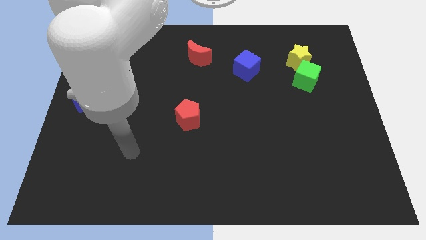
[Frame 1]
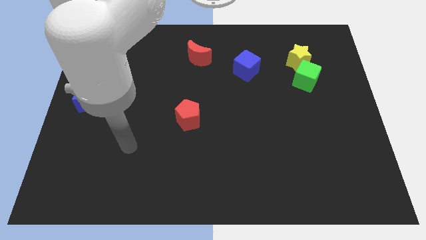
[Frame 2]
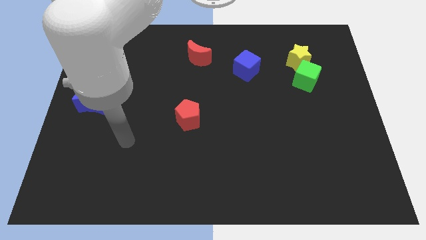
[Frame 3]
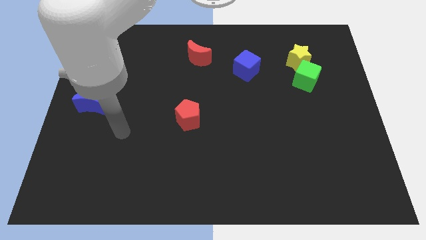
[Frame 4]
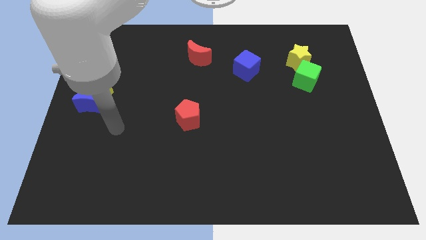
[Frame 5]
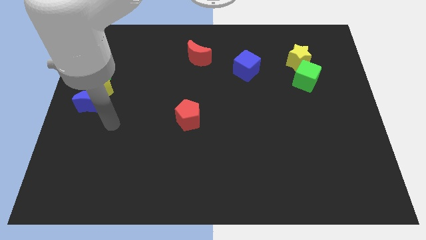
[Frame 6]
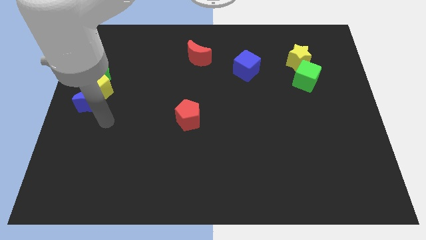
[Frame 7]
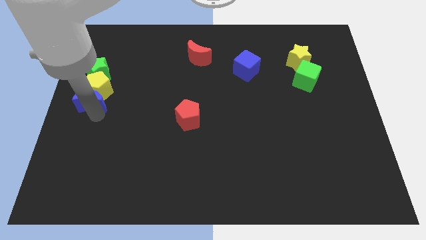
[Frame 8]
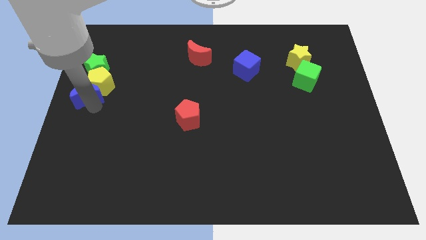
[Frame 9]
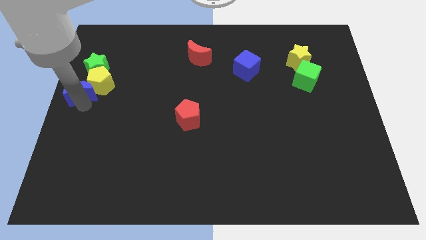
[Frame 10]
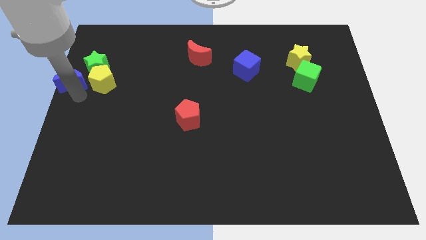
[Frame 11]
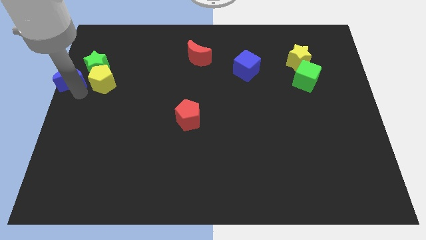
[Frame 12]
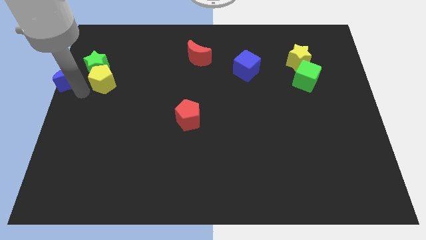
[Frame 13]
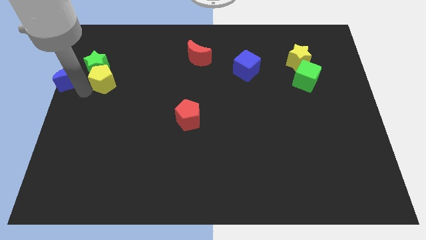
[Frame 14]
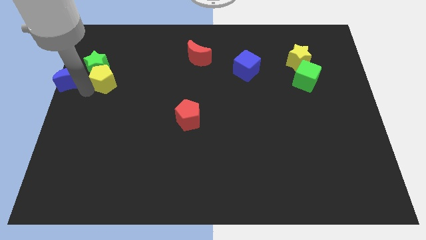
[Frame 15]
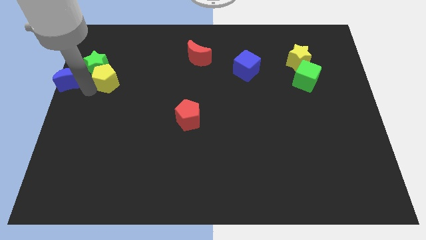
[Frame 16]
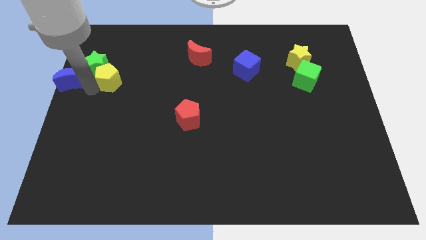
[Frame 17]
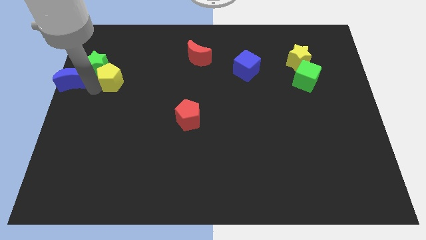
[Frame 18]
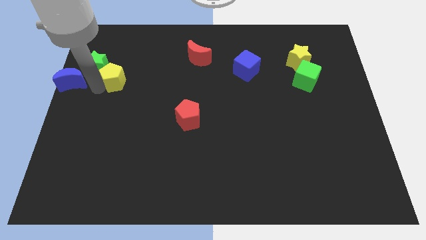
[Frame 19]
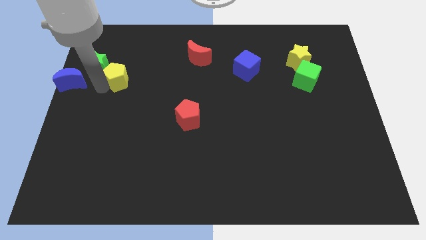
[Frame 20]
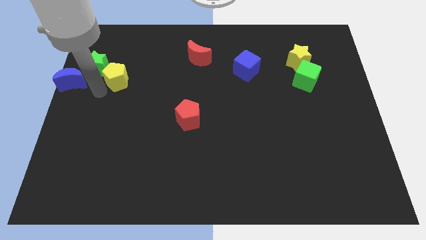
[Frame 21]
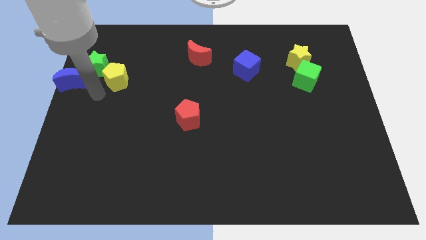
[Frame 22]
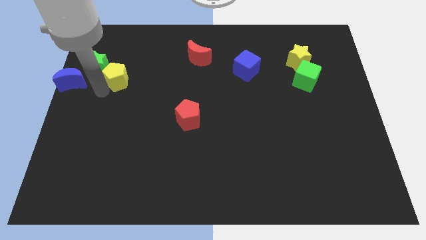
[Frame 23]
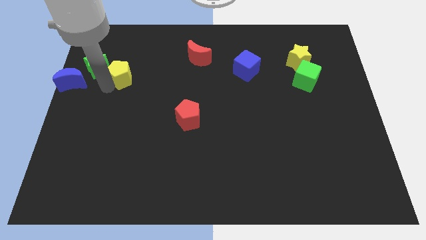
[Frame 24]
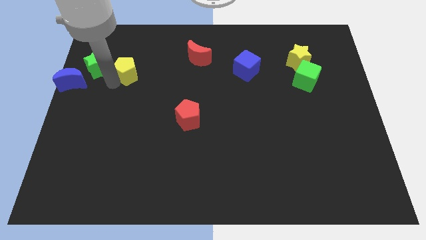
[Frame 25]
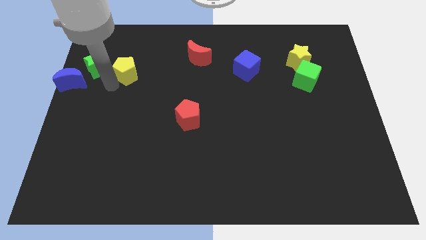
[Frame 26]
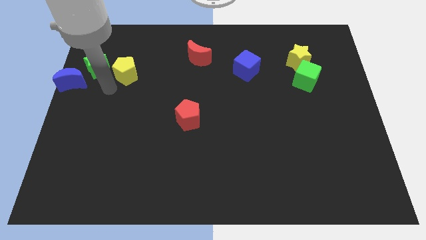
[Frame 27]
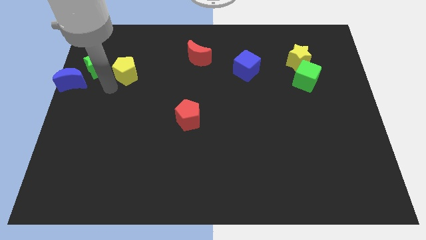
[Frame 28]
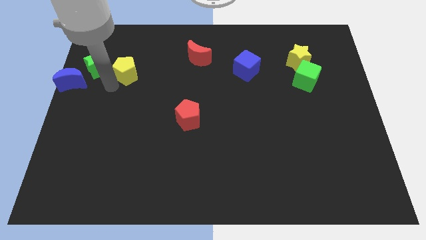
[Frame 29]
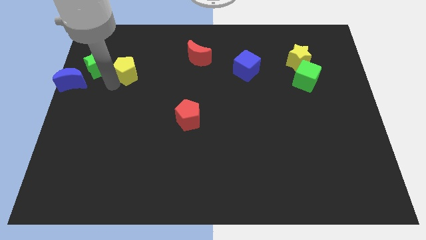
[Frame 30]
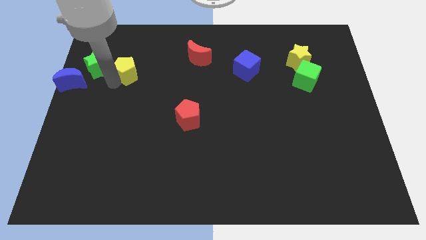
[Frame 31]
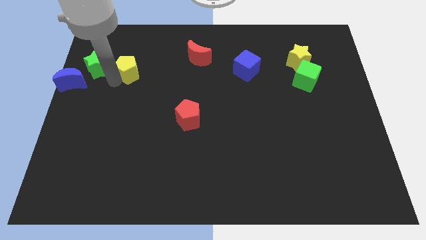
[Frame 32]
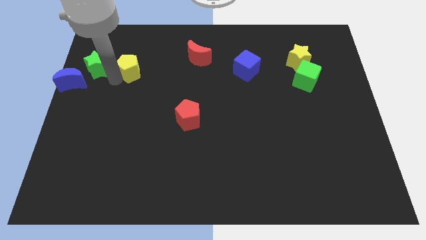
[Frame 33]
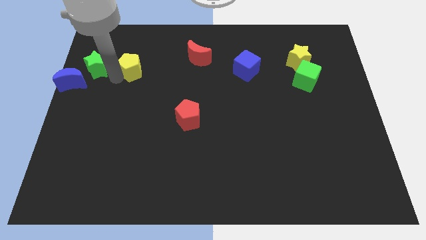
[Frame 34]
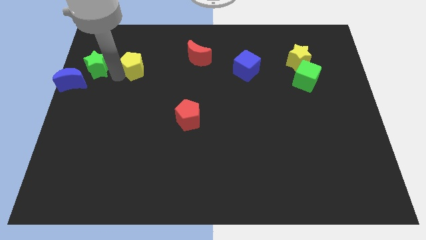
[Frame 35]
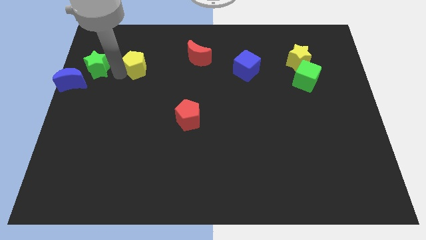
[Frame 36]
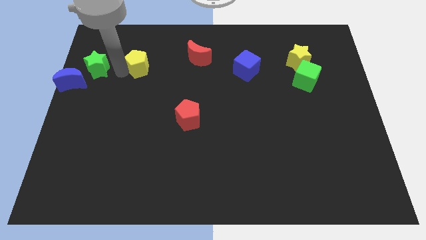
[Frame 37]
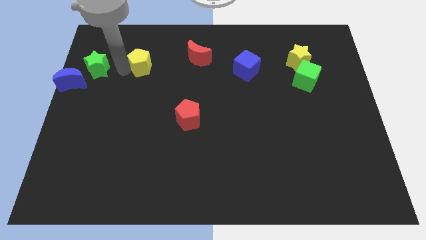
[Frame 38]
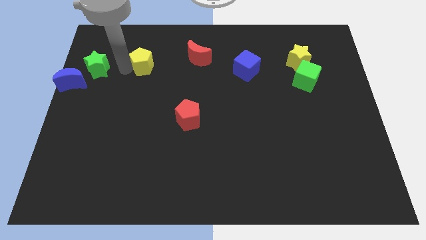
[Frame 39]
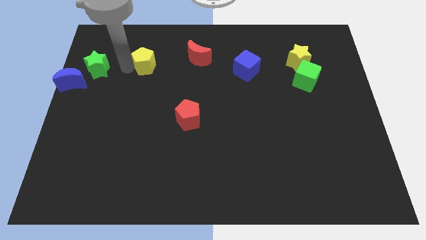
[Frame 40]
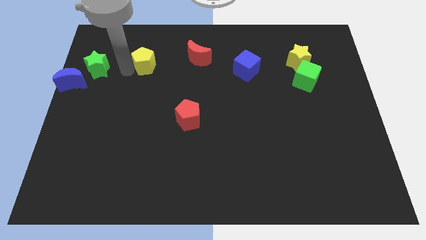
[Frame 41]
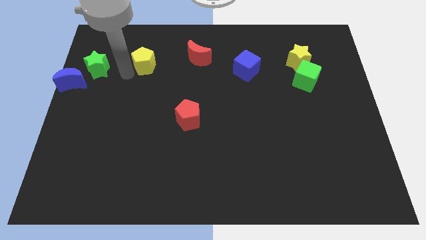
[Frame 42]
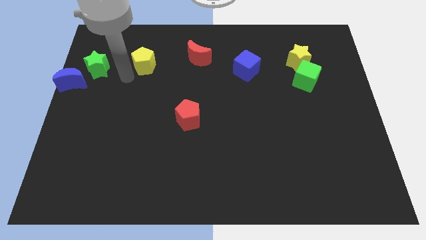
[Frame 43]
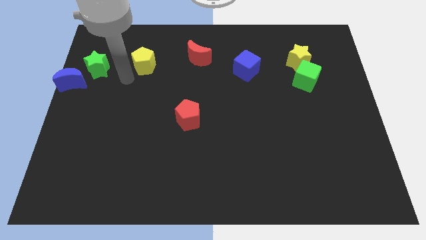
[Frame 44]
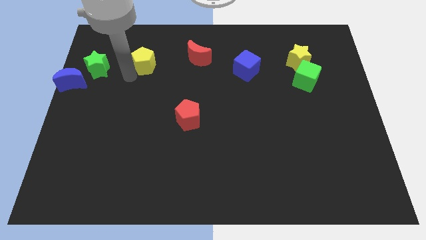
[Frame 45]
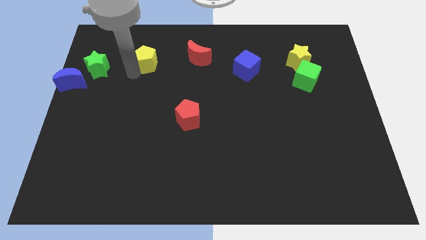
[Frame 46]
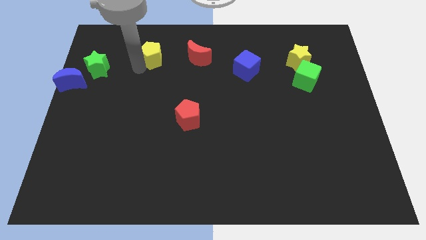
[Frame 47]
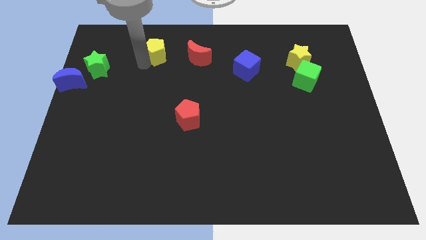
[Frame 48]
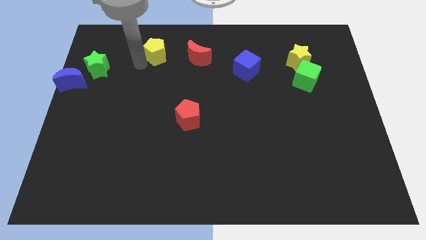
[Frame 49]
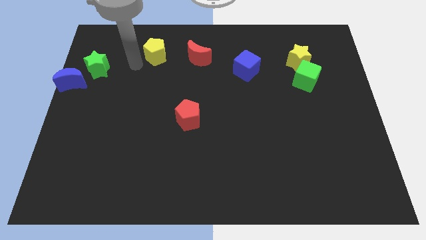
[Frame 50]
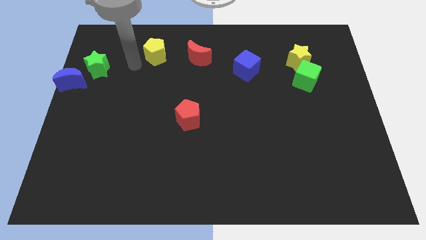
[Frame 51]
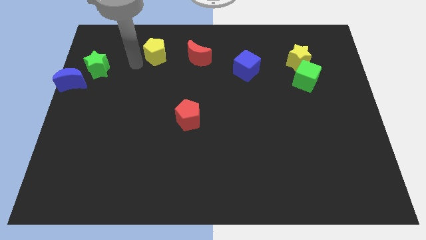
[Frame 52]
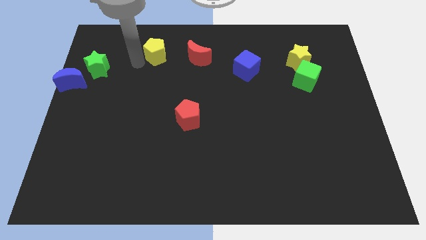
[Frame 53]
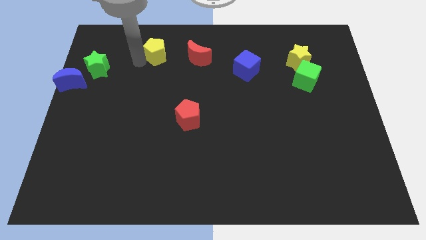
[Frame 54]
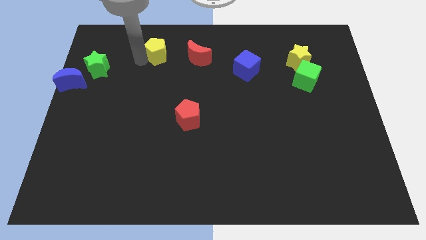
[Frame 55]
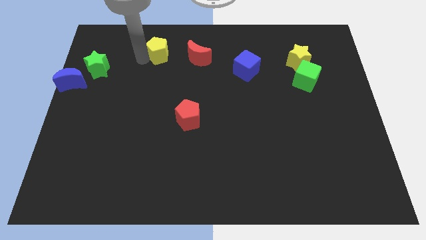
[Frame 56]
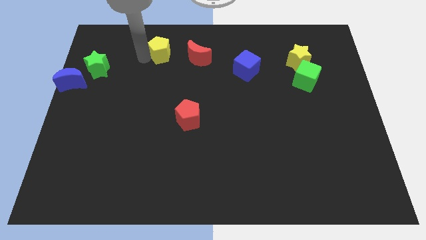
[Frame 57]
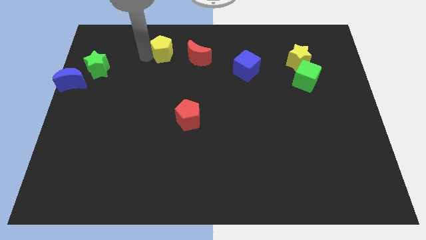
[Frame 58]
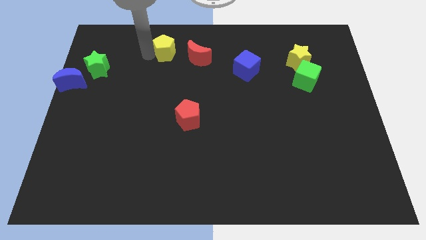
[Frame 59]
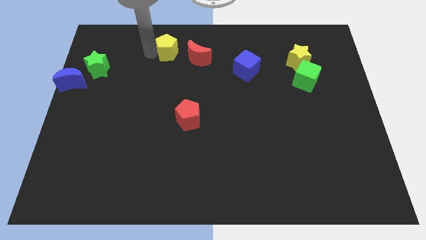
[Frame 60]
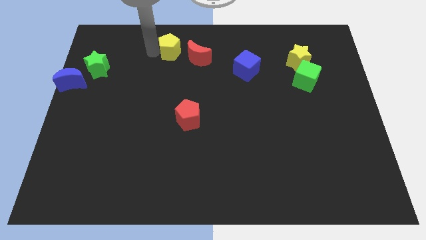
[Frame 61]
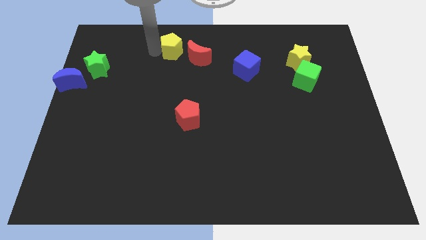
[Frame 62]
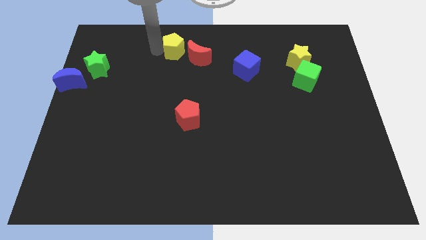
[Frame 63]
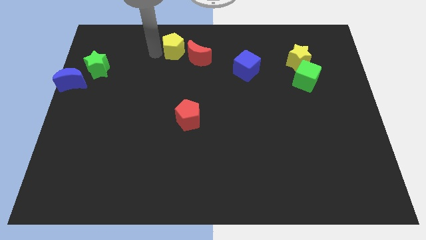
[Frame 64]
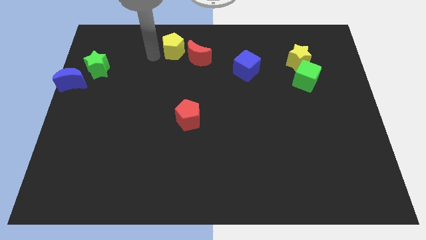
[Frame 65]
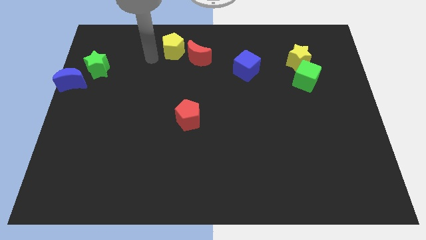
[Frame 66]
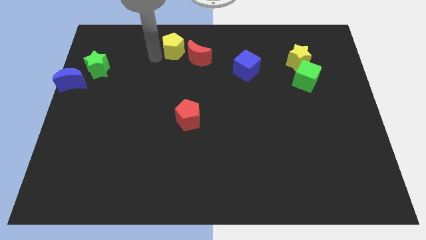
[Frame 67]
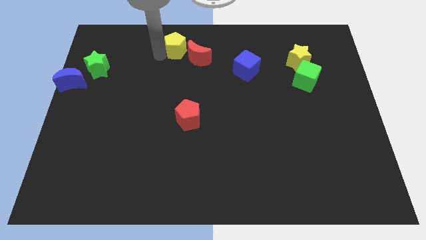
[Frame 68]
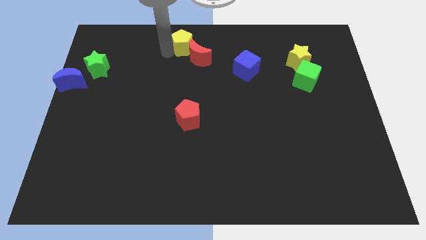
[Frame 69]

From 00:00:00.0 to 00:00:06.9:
move the yellow pentagon to the top
